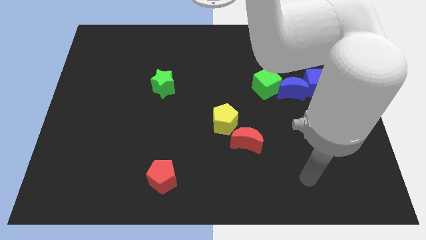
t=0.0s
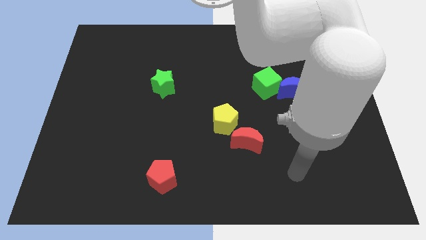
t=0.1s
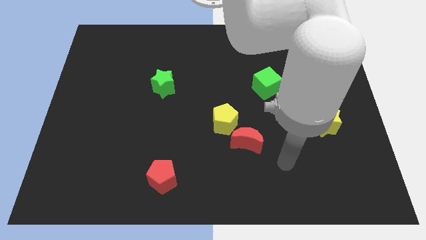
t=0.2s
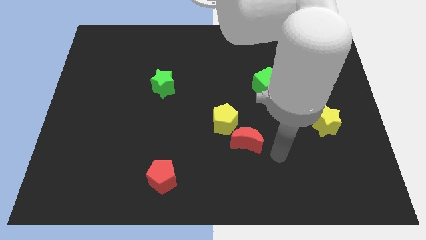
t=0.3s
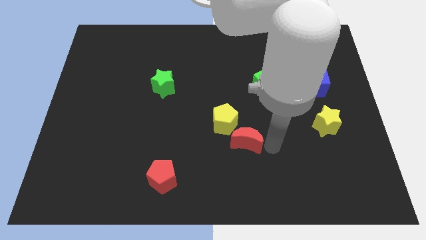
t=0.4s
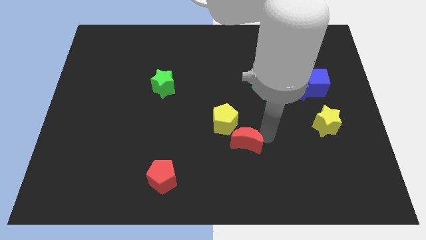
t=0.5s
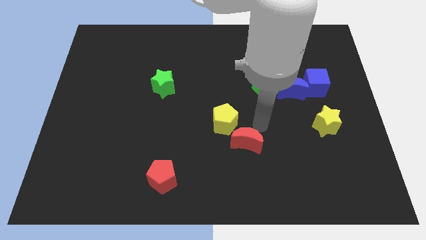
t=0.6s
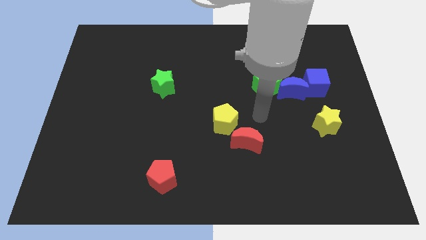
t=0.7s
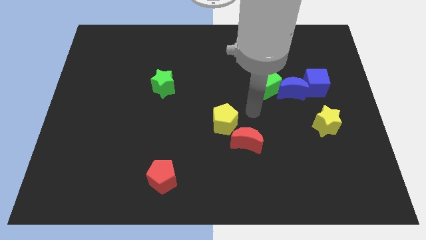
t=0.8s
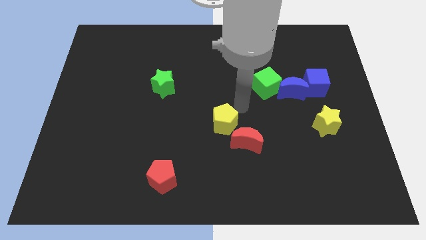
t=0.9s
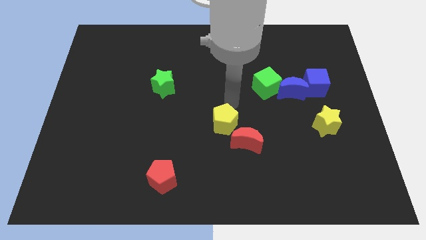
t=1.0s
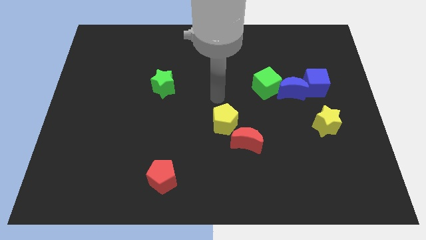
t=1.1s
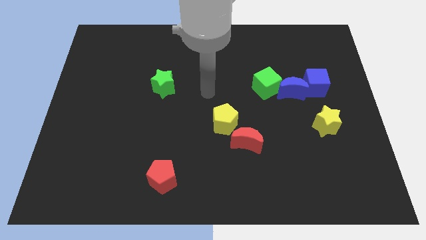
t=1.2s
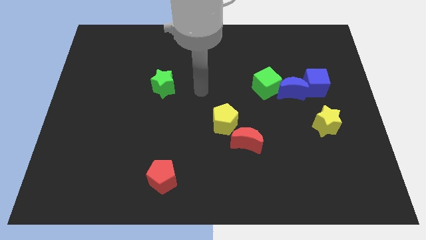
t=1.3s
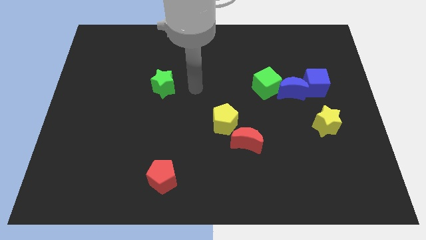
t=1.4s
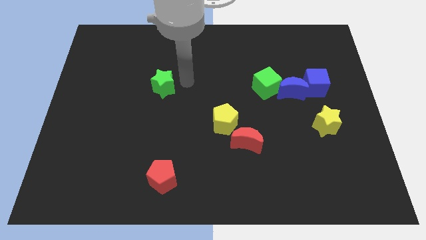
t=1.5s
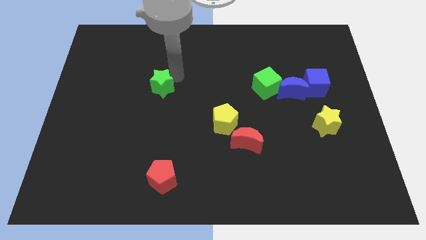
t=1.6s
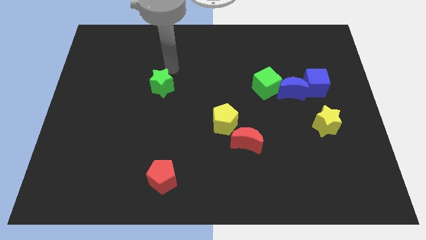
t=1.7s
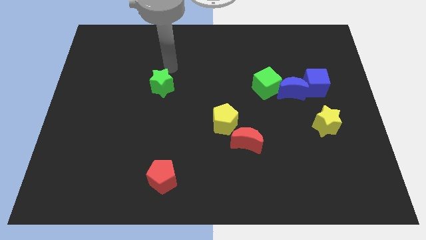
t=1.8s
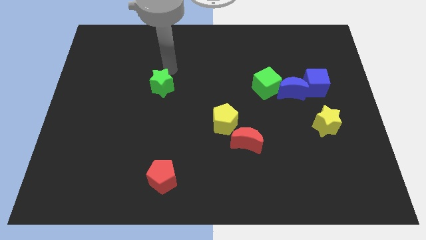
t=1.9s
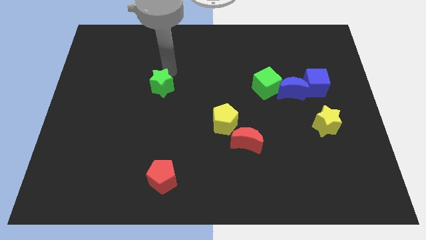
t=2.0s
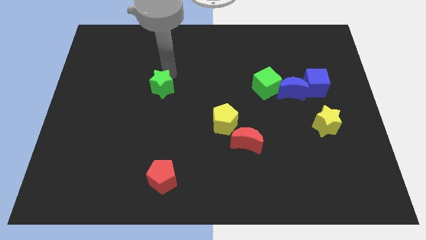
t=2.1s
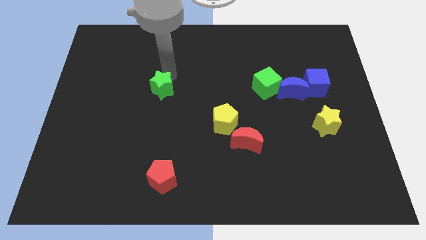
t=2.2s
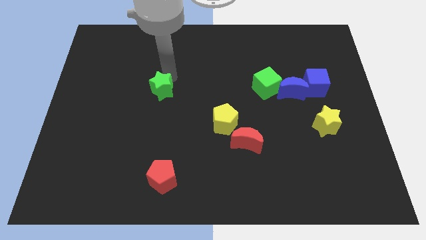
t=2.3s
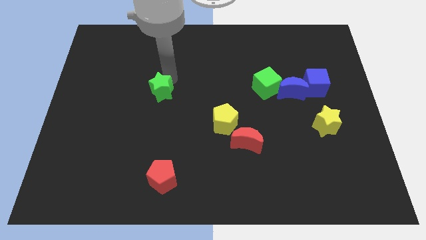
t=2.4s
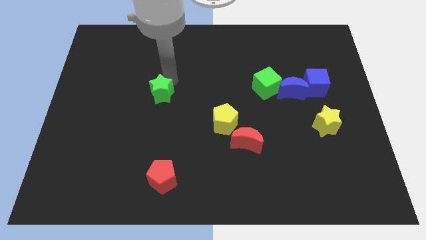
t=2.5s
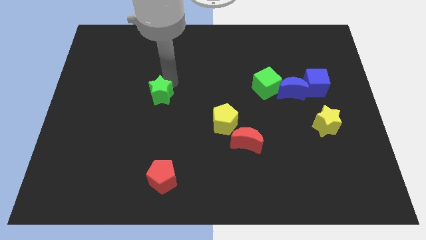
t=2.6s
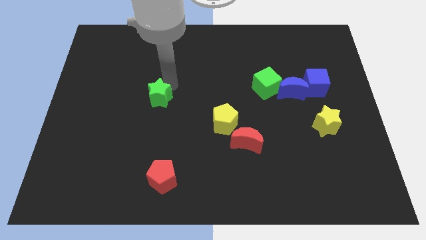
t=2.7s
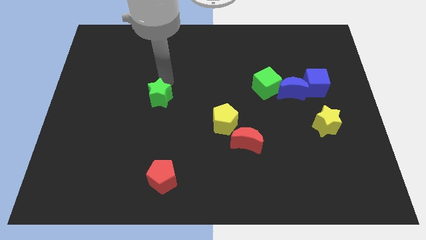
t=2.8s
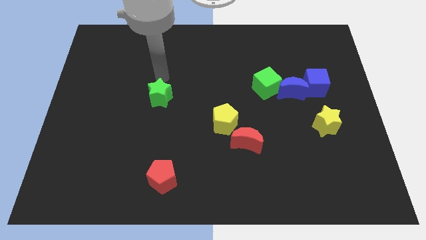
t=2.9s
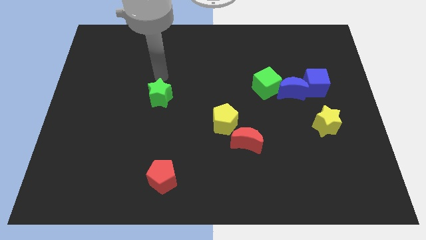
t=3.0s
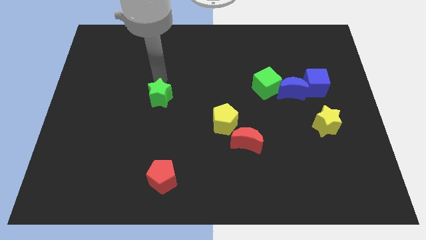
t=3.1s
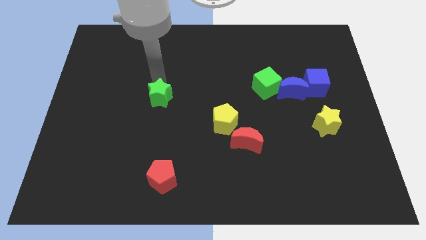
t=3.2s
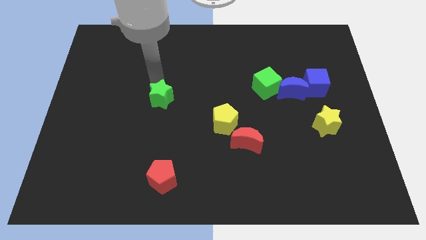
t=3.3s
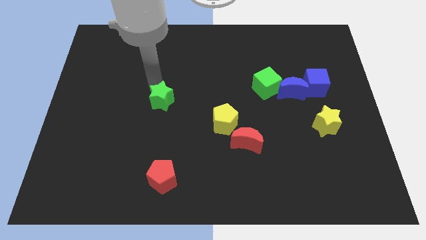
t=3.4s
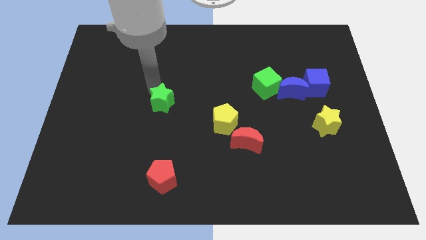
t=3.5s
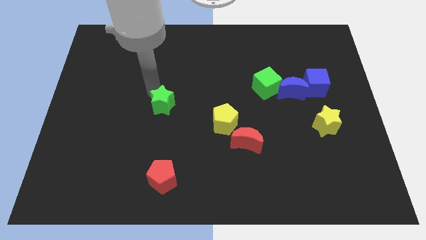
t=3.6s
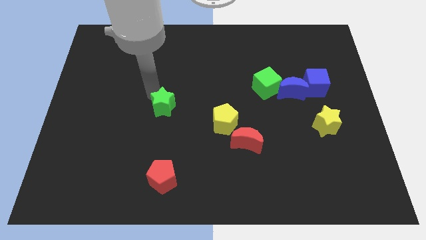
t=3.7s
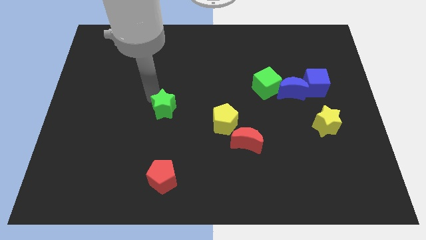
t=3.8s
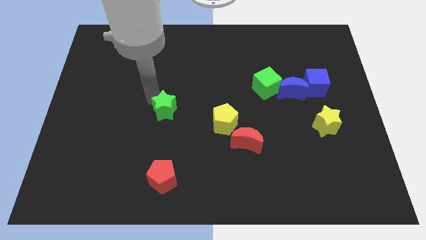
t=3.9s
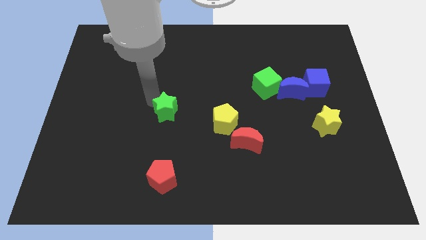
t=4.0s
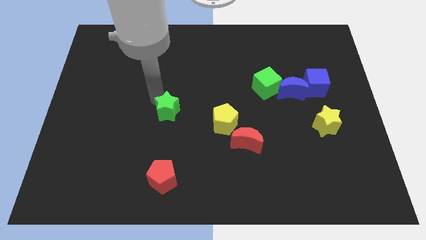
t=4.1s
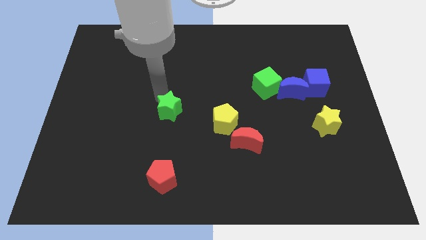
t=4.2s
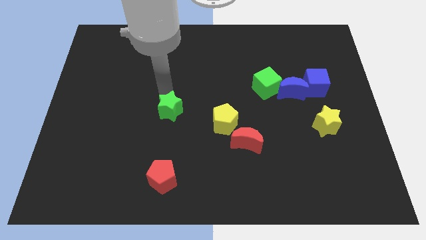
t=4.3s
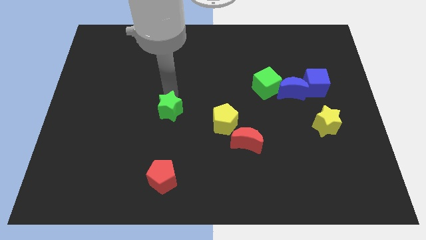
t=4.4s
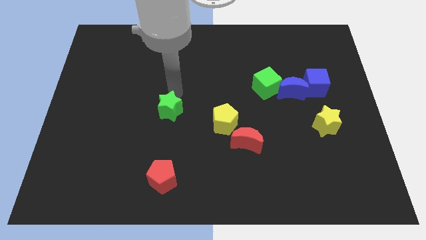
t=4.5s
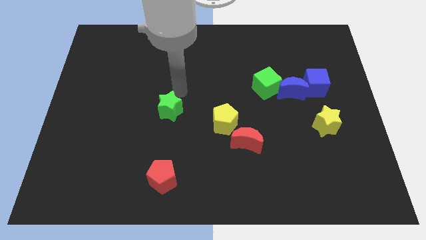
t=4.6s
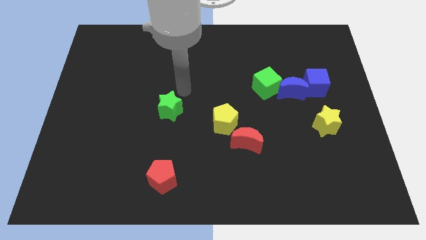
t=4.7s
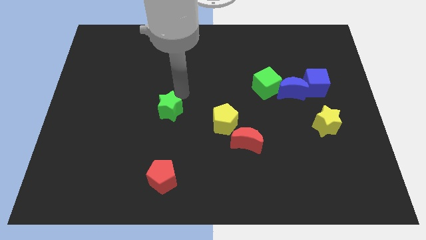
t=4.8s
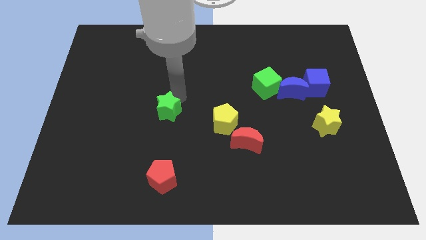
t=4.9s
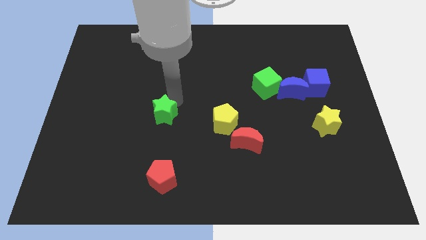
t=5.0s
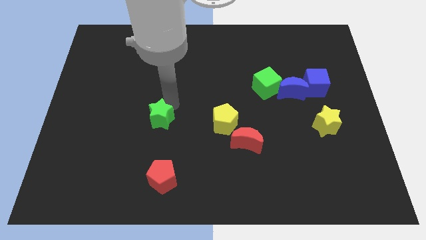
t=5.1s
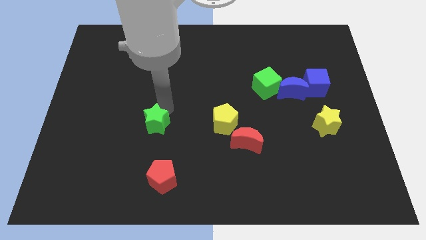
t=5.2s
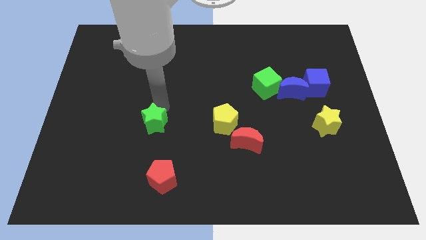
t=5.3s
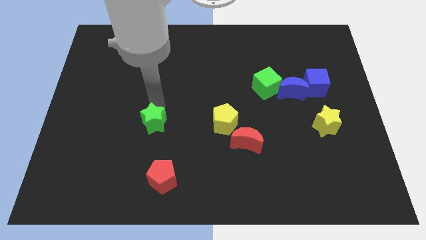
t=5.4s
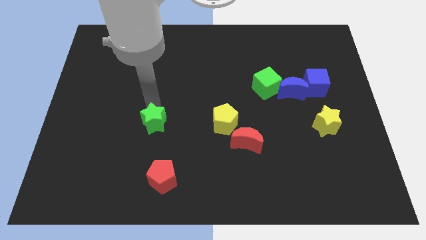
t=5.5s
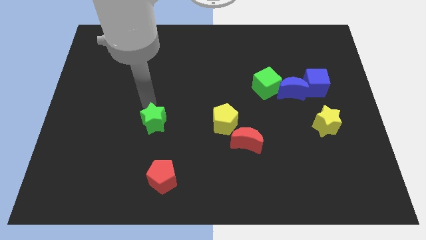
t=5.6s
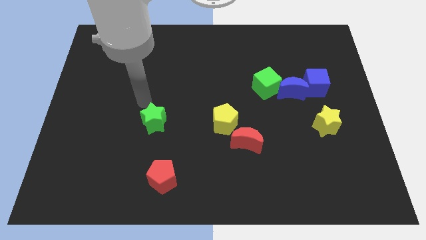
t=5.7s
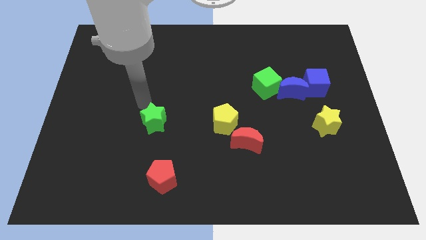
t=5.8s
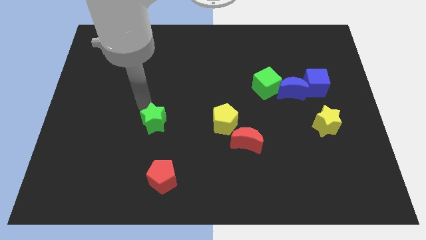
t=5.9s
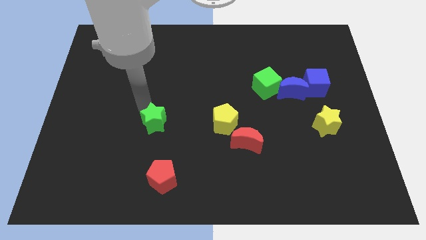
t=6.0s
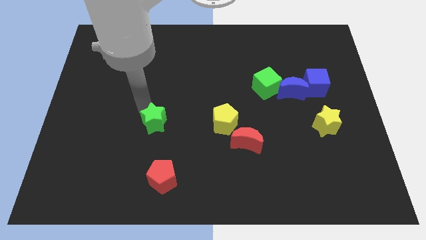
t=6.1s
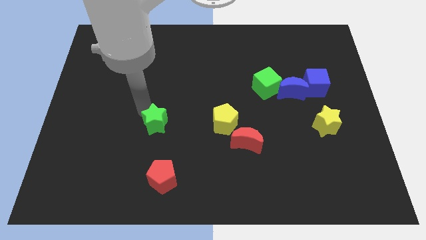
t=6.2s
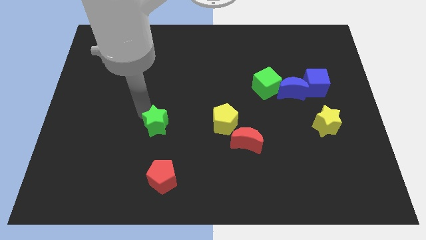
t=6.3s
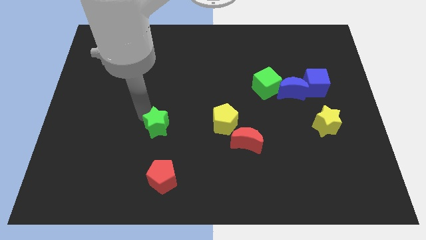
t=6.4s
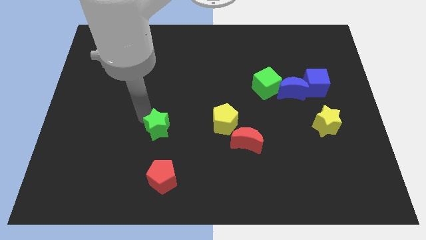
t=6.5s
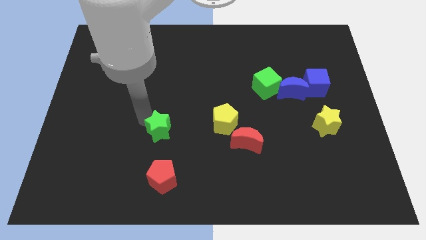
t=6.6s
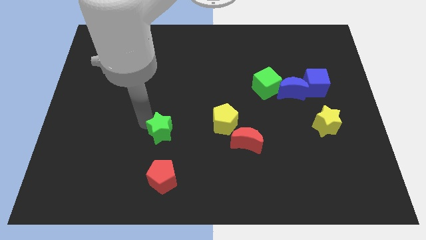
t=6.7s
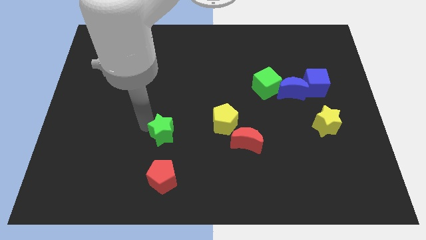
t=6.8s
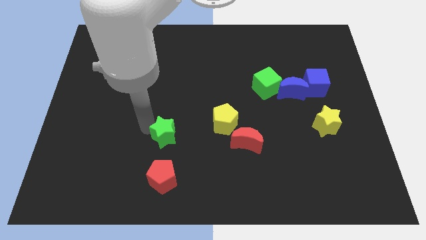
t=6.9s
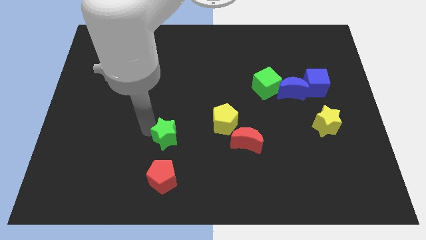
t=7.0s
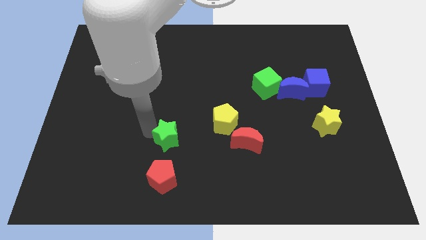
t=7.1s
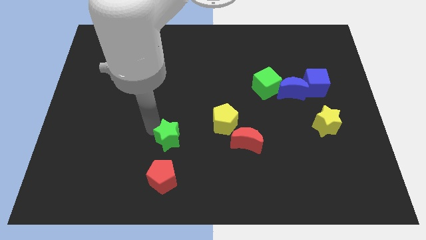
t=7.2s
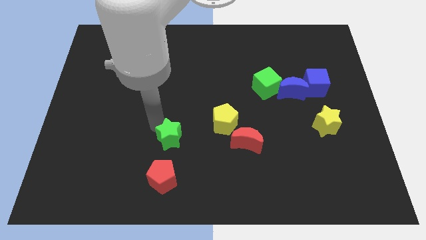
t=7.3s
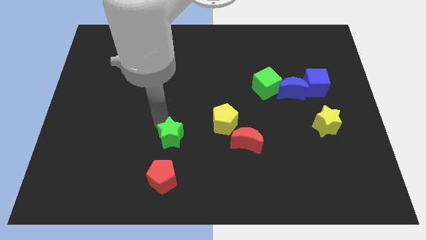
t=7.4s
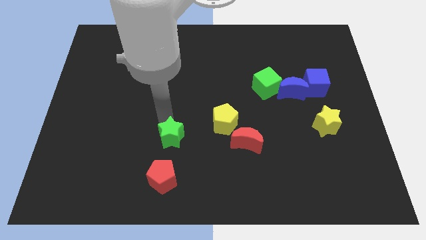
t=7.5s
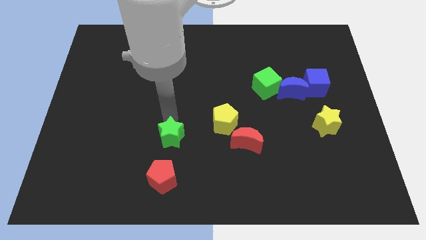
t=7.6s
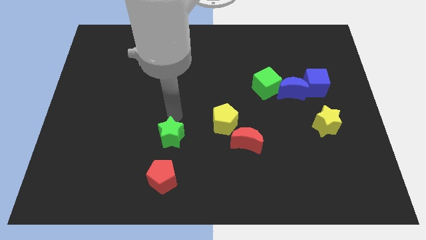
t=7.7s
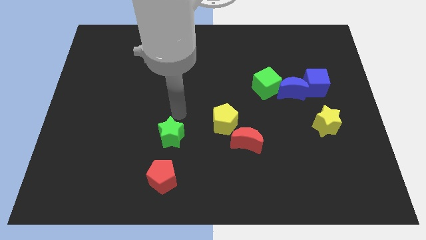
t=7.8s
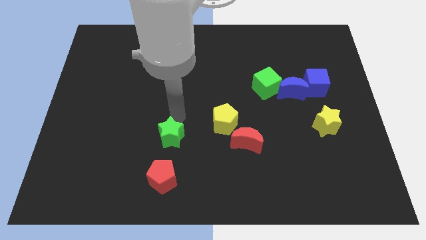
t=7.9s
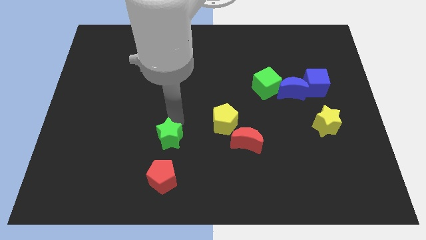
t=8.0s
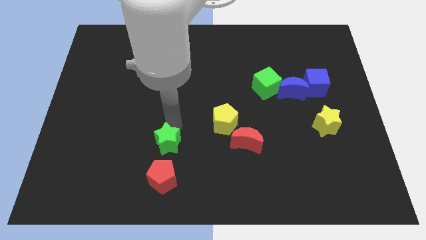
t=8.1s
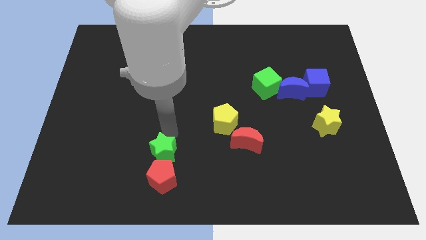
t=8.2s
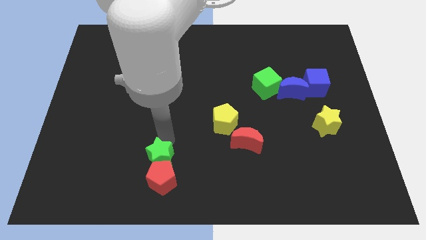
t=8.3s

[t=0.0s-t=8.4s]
move the green star close to the red pentagon
